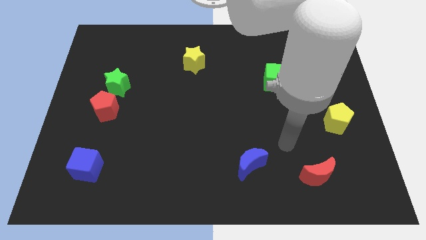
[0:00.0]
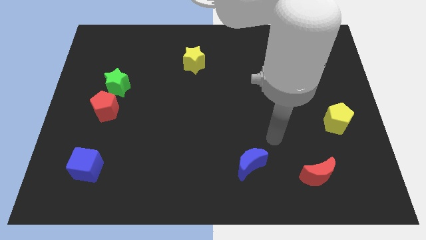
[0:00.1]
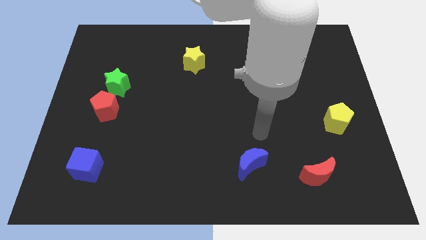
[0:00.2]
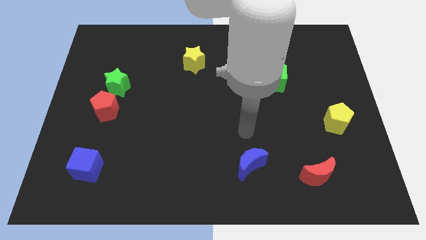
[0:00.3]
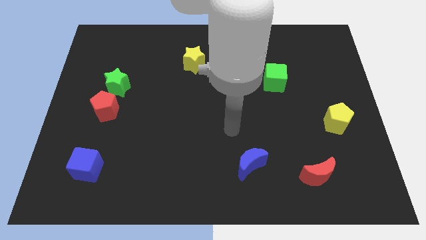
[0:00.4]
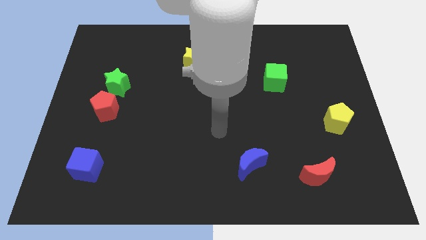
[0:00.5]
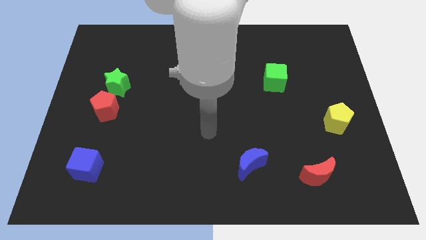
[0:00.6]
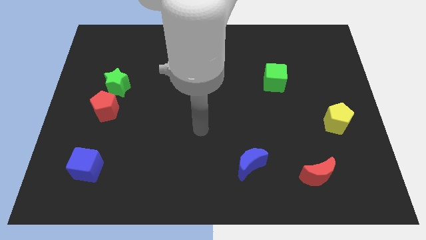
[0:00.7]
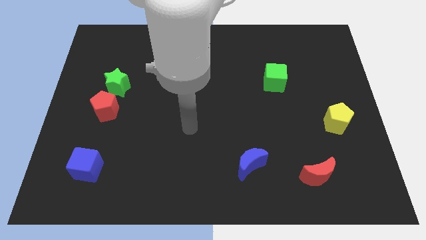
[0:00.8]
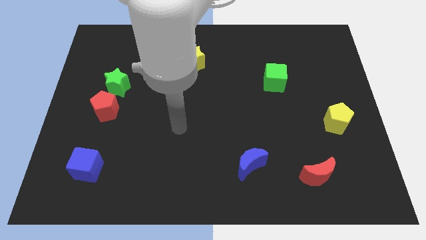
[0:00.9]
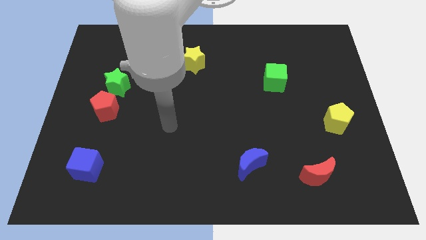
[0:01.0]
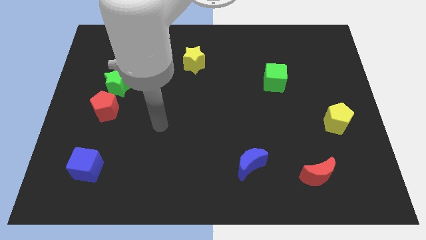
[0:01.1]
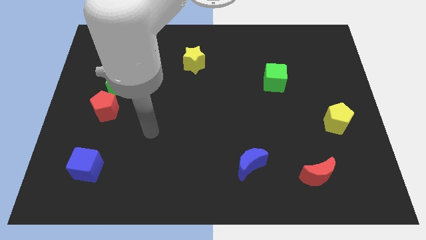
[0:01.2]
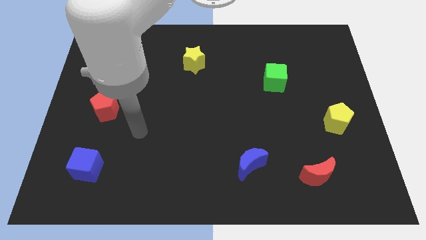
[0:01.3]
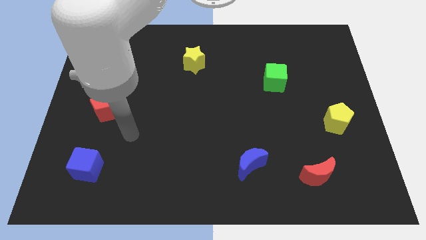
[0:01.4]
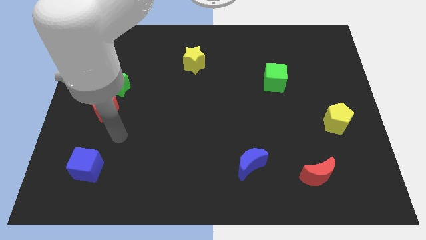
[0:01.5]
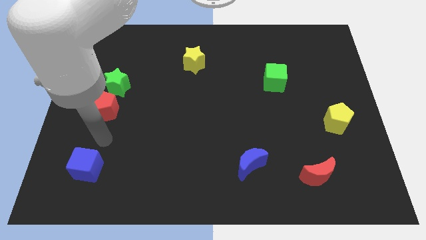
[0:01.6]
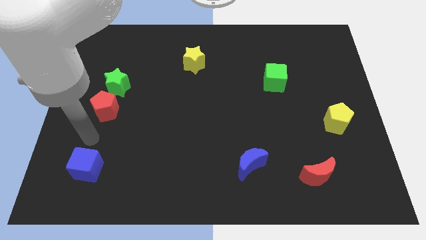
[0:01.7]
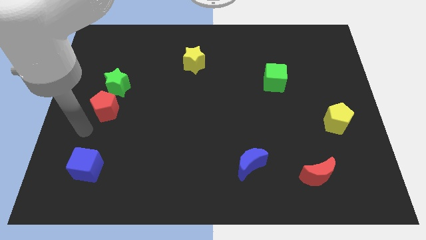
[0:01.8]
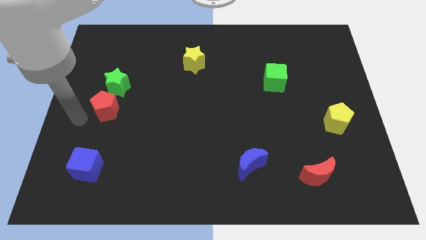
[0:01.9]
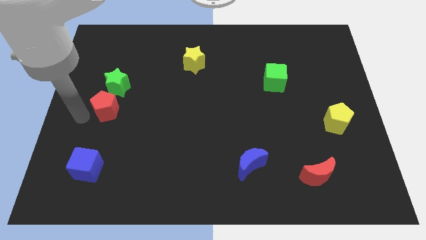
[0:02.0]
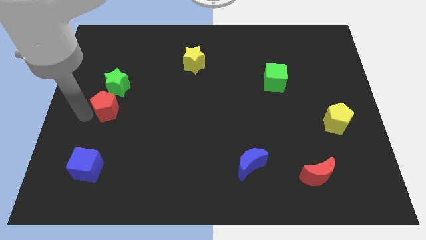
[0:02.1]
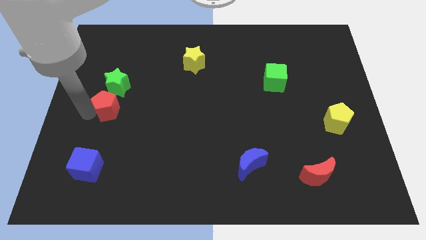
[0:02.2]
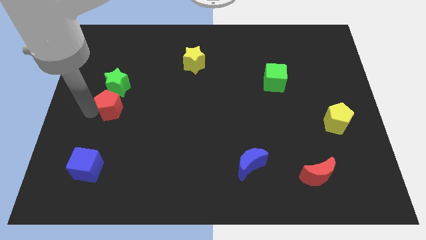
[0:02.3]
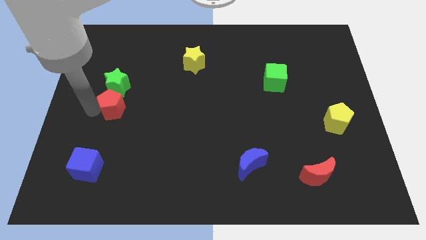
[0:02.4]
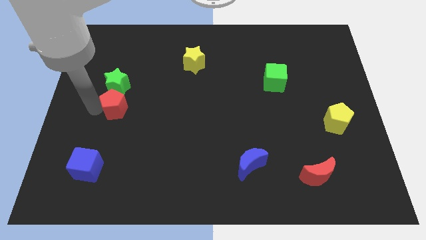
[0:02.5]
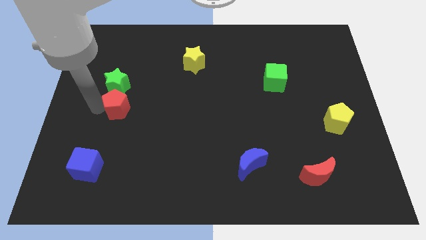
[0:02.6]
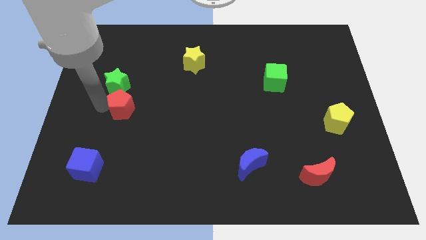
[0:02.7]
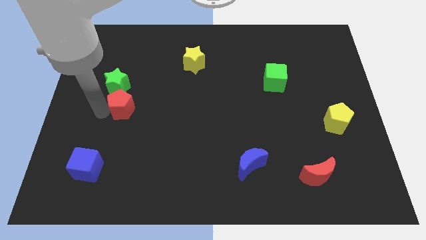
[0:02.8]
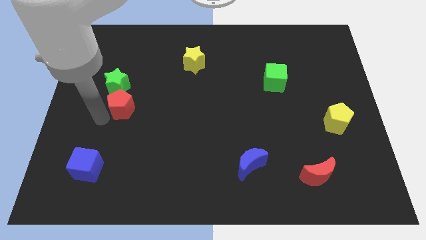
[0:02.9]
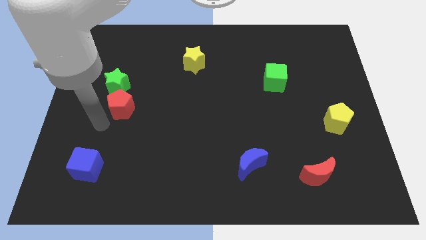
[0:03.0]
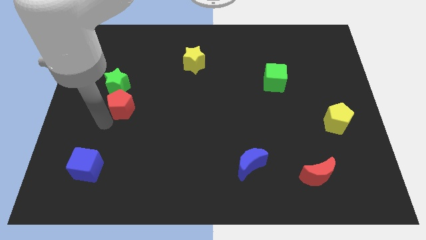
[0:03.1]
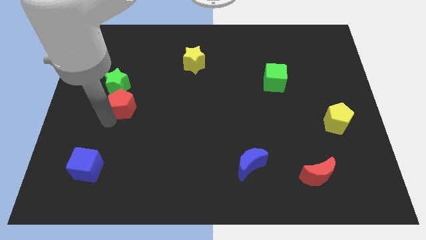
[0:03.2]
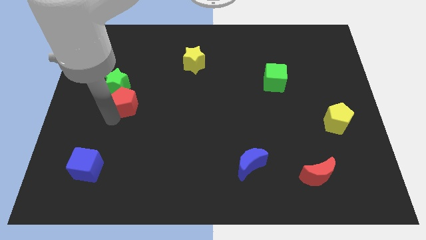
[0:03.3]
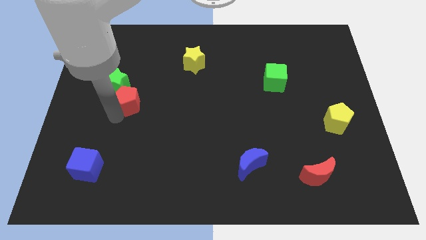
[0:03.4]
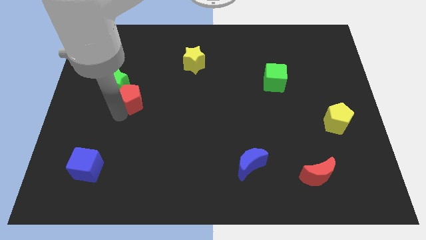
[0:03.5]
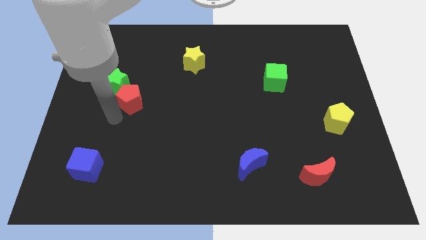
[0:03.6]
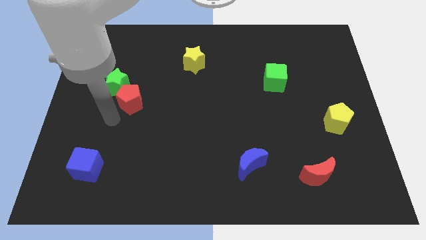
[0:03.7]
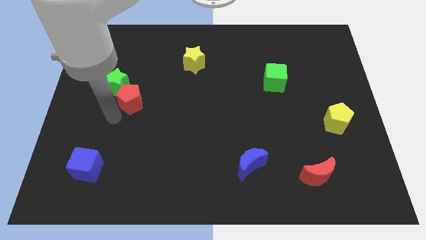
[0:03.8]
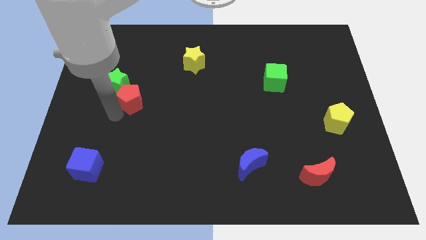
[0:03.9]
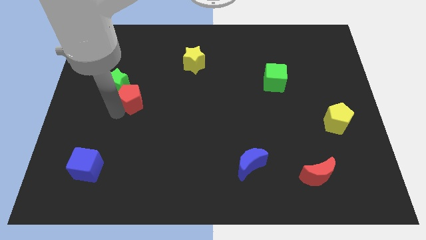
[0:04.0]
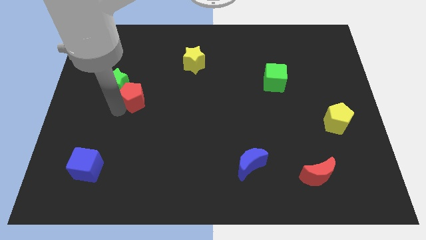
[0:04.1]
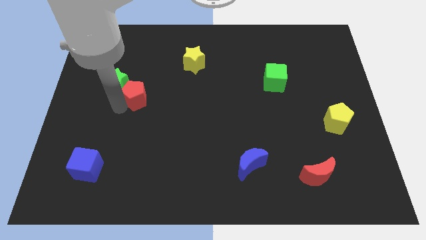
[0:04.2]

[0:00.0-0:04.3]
push the red pentagon up and right diagonally a little bit

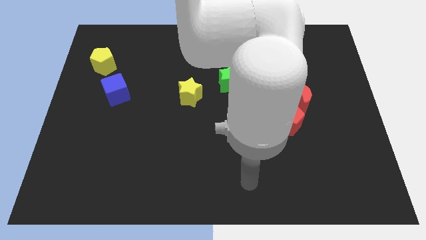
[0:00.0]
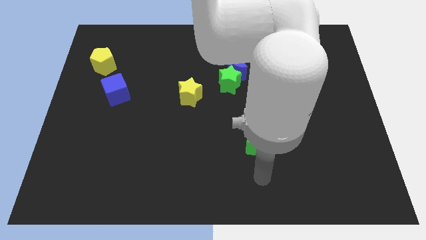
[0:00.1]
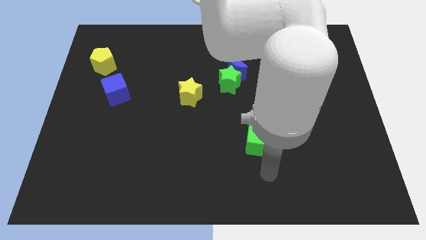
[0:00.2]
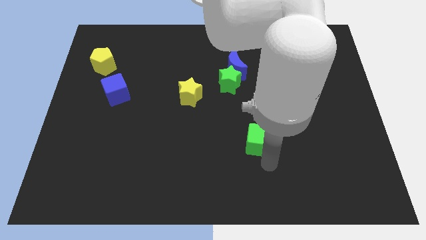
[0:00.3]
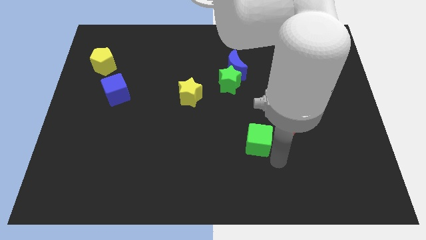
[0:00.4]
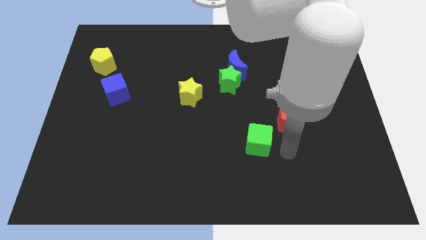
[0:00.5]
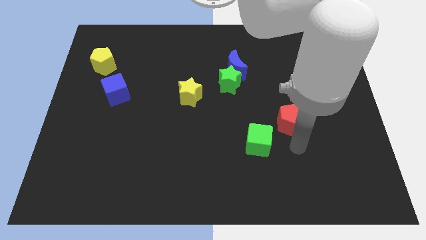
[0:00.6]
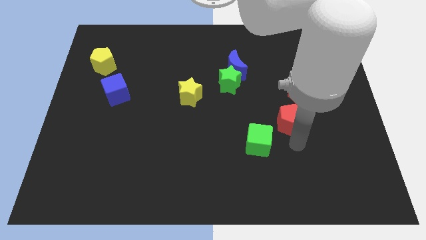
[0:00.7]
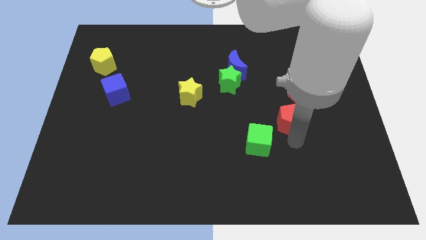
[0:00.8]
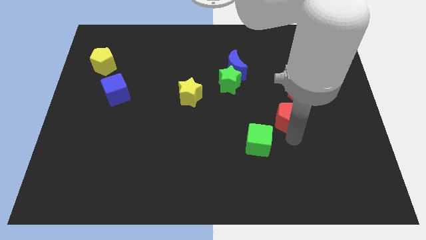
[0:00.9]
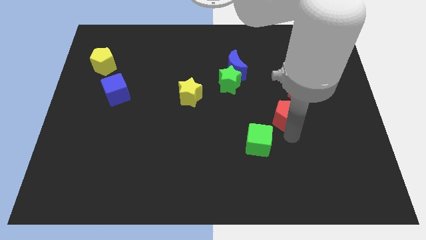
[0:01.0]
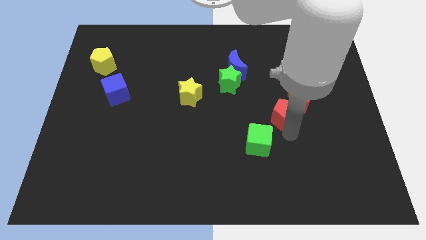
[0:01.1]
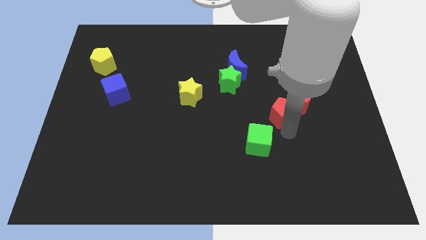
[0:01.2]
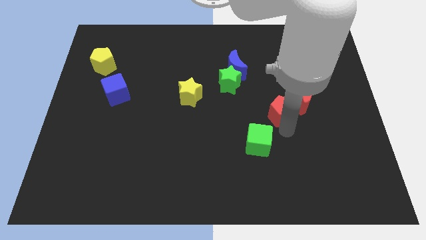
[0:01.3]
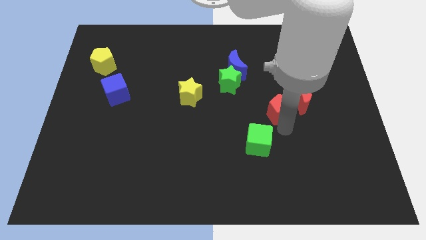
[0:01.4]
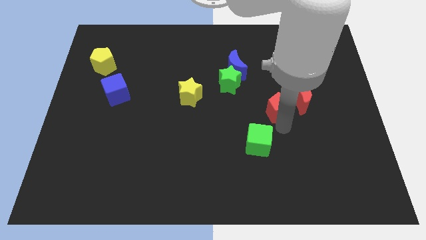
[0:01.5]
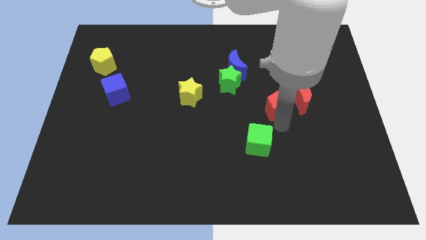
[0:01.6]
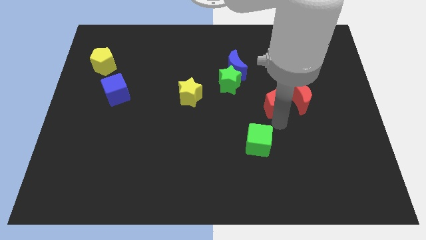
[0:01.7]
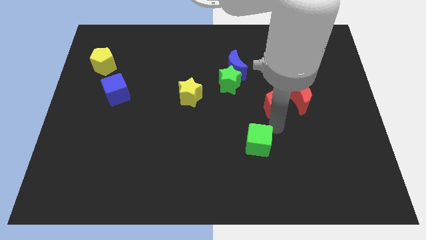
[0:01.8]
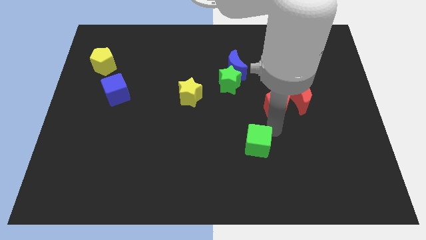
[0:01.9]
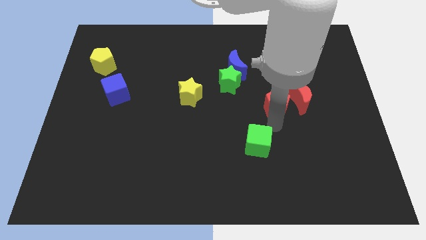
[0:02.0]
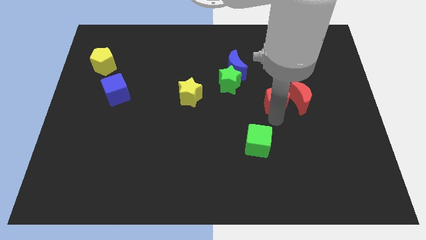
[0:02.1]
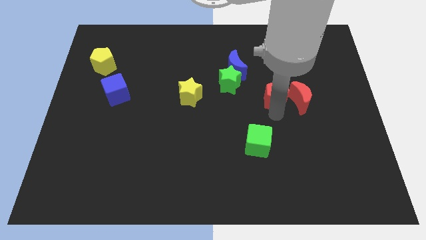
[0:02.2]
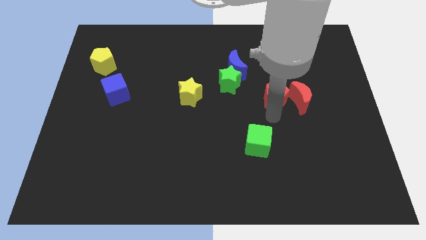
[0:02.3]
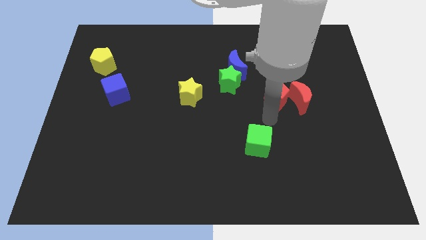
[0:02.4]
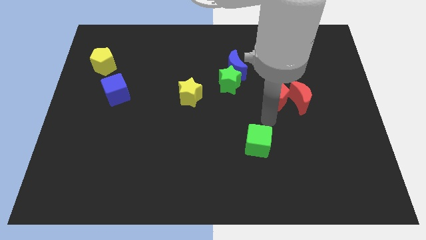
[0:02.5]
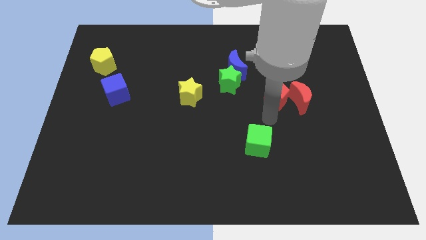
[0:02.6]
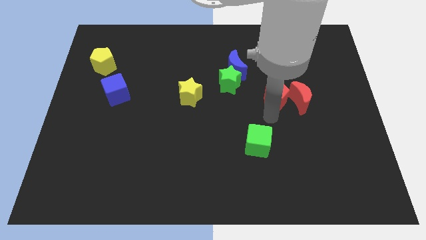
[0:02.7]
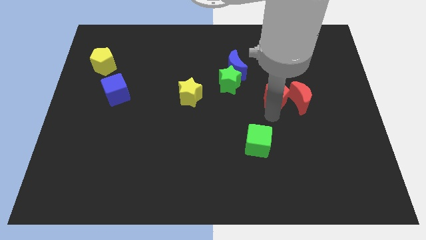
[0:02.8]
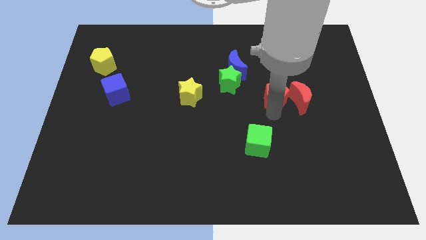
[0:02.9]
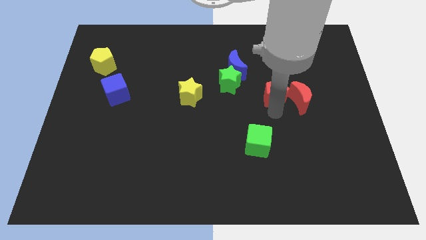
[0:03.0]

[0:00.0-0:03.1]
slightly slide the red pentagon upwards

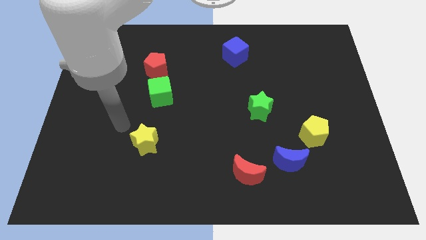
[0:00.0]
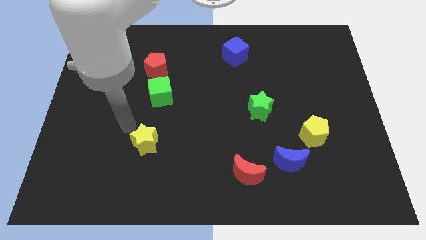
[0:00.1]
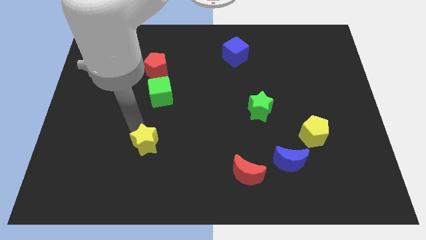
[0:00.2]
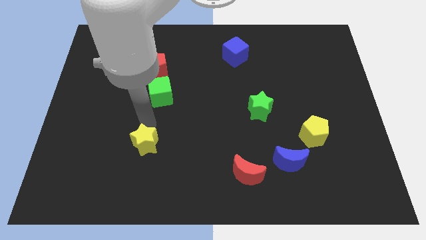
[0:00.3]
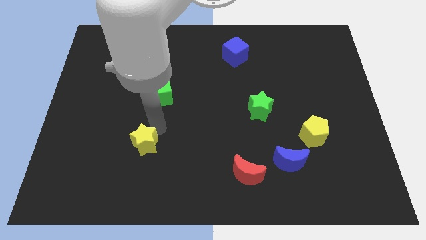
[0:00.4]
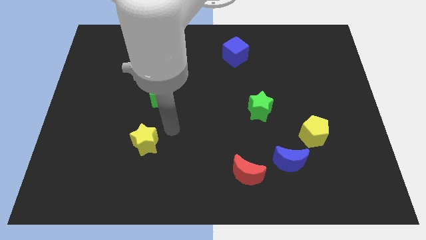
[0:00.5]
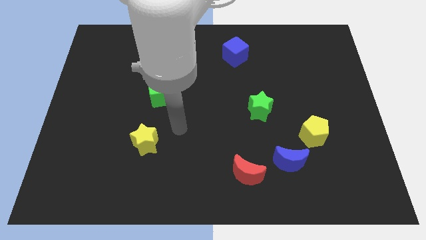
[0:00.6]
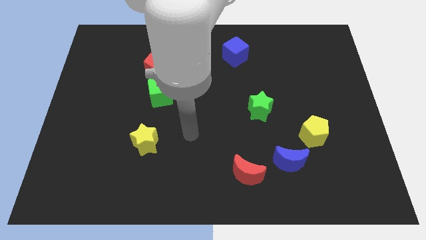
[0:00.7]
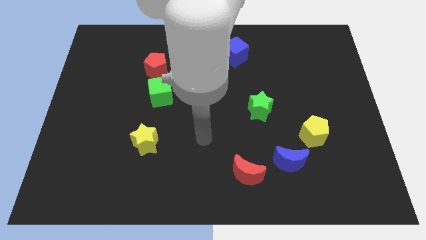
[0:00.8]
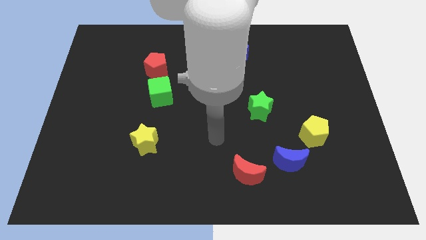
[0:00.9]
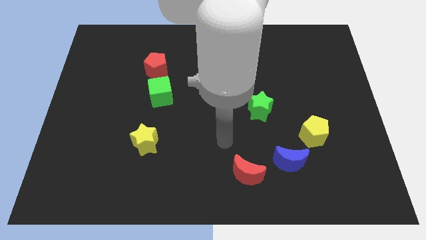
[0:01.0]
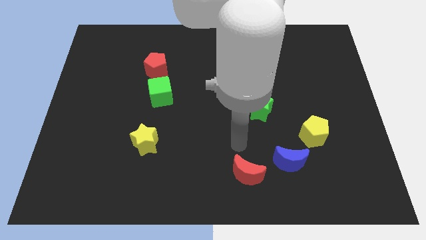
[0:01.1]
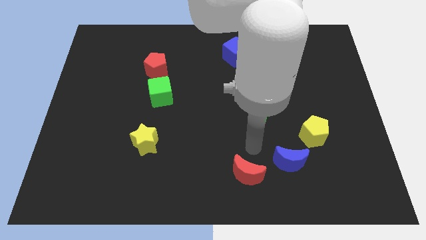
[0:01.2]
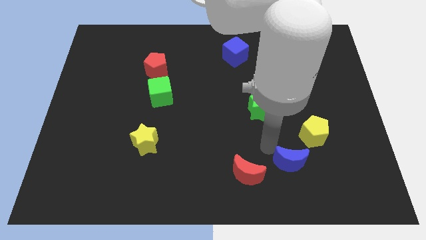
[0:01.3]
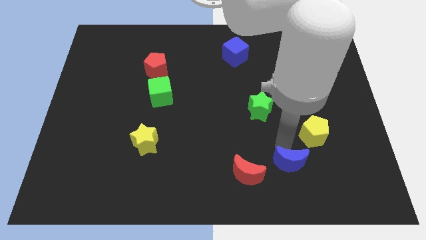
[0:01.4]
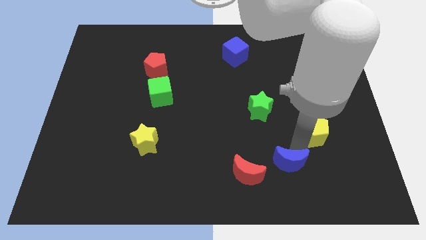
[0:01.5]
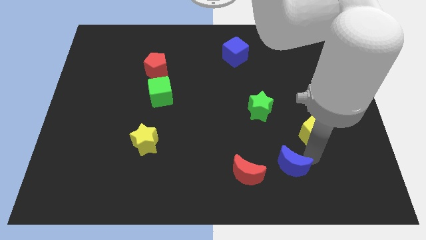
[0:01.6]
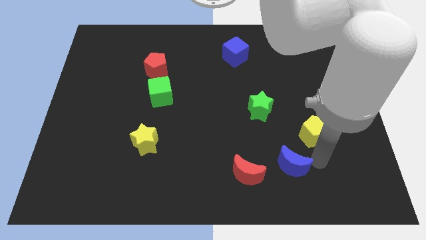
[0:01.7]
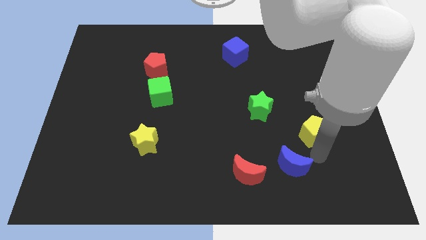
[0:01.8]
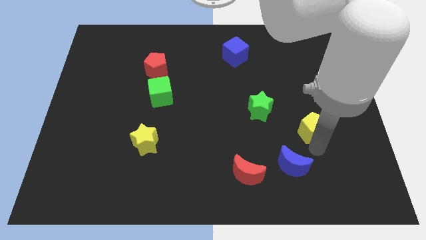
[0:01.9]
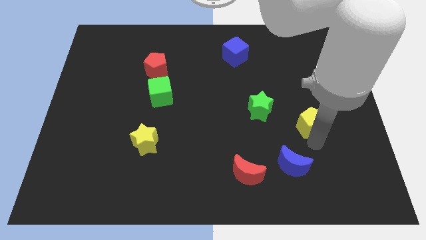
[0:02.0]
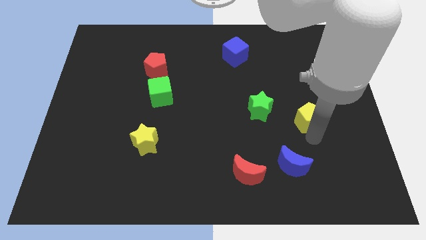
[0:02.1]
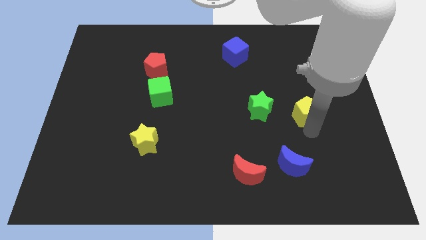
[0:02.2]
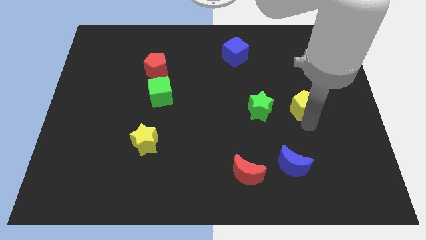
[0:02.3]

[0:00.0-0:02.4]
slightly move the yellow pentagon up
